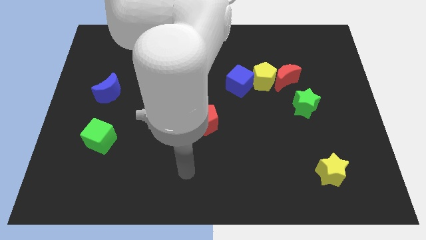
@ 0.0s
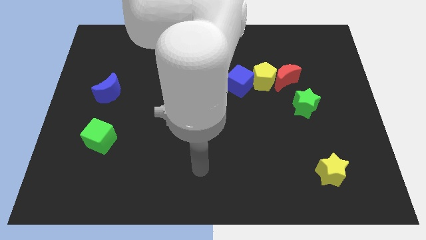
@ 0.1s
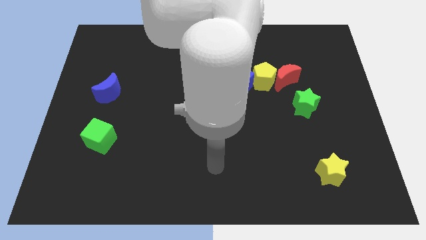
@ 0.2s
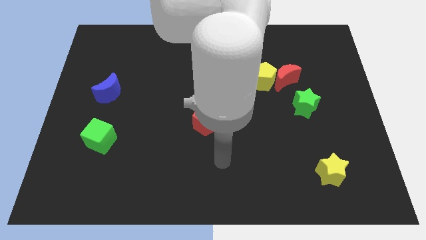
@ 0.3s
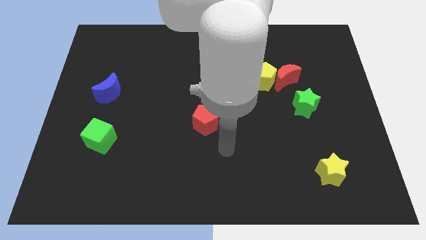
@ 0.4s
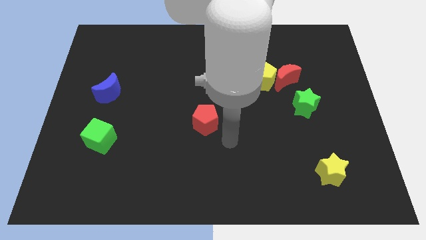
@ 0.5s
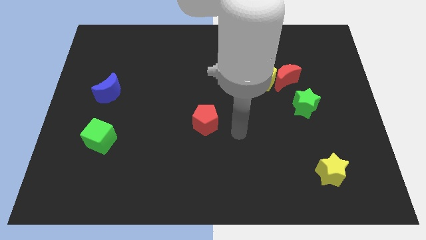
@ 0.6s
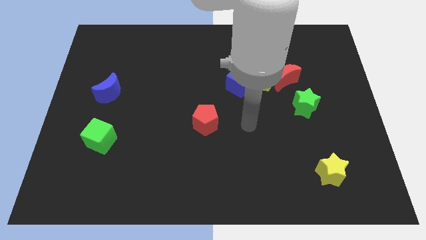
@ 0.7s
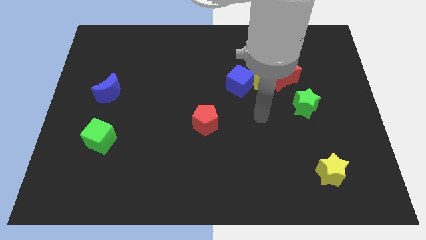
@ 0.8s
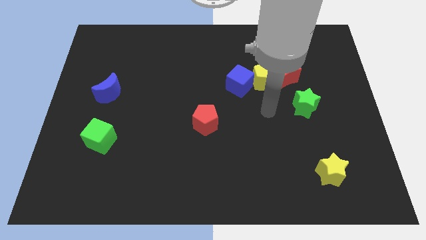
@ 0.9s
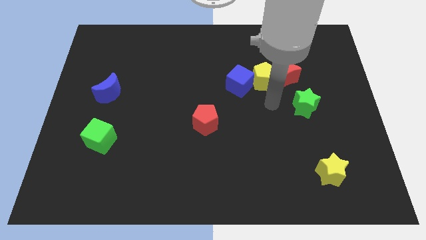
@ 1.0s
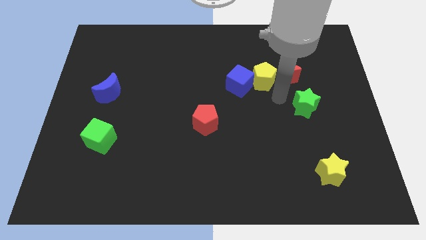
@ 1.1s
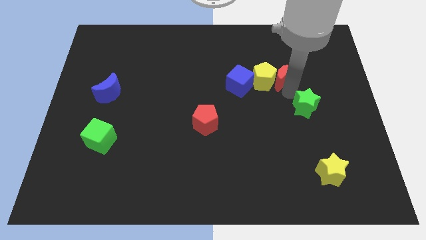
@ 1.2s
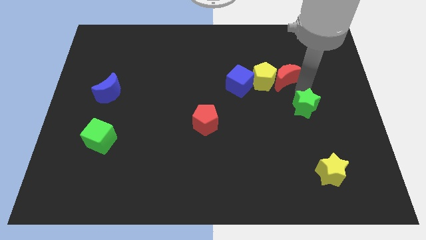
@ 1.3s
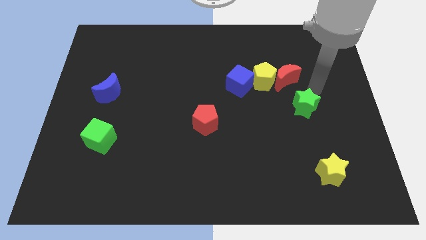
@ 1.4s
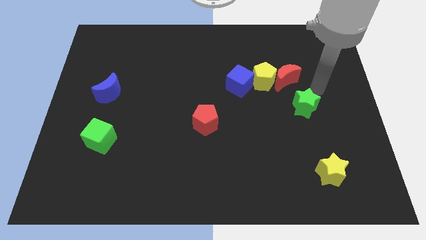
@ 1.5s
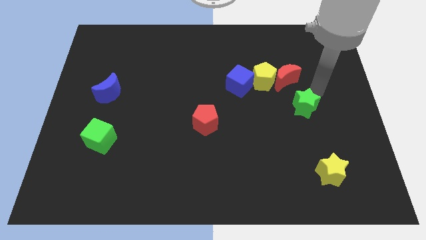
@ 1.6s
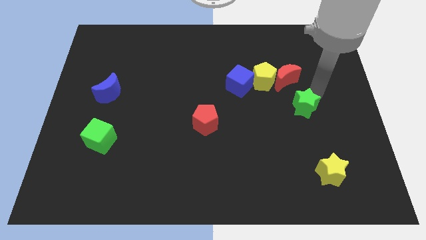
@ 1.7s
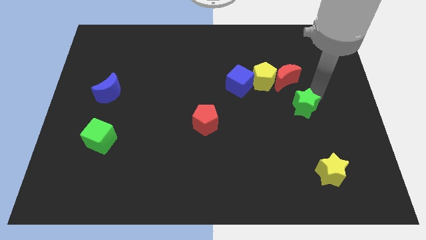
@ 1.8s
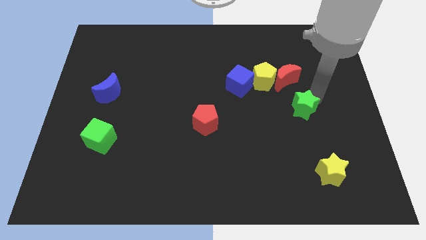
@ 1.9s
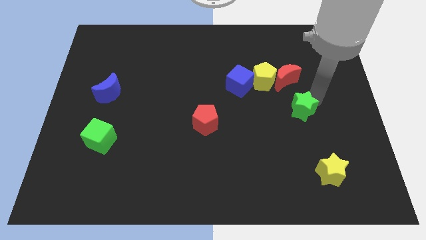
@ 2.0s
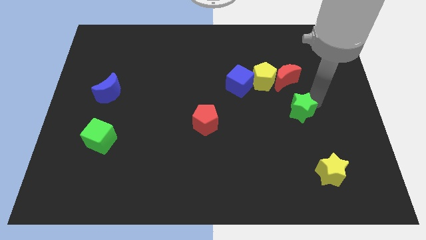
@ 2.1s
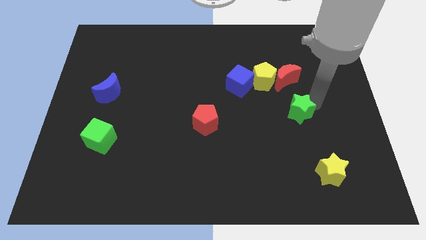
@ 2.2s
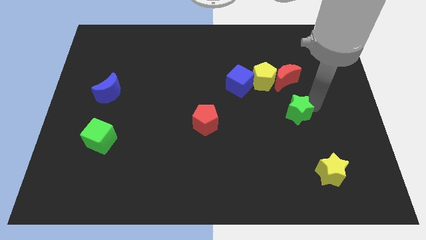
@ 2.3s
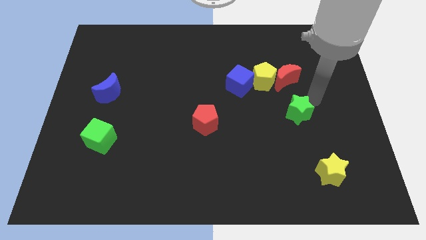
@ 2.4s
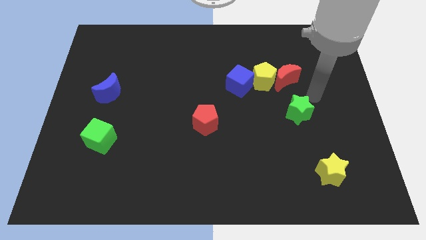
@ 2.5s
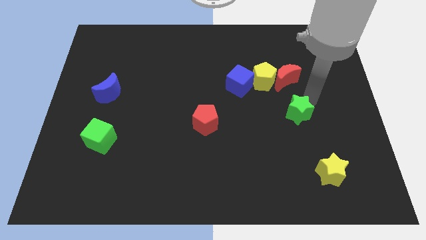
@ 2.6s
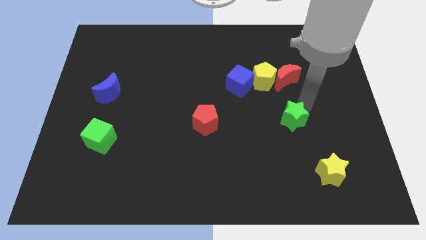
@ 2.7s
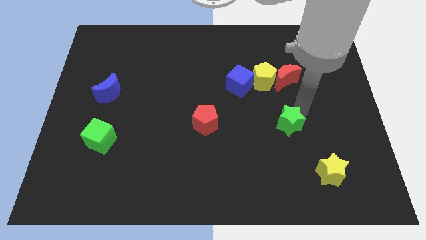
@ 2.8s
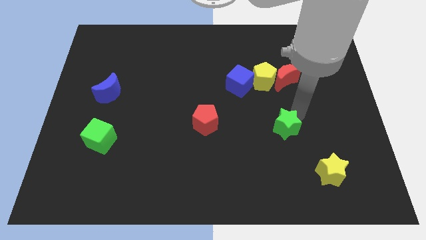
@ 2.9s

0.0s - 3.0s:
slightly slide the green star down and then left

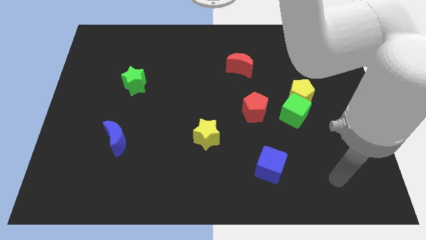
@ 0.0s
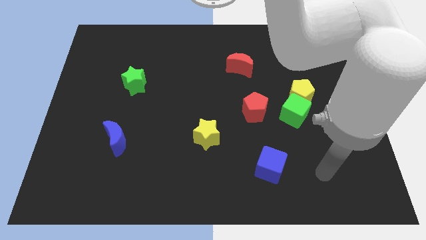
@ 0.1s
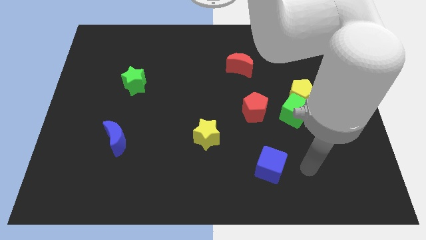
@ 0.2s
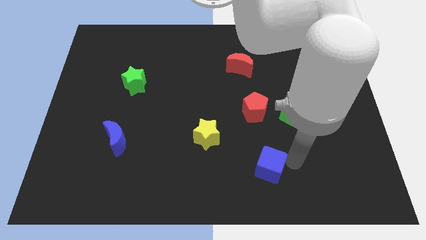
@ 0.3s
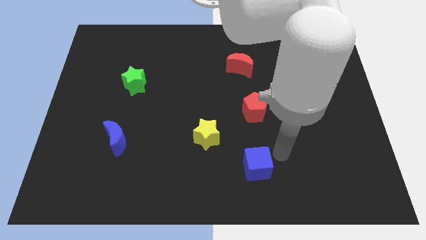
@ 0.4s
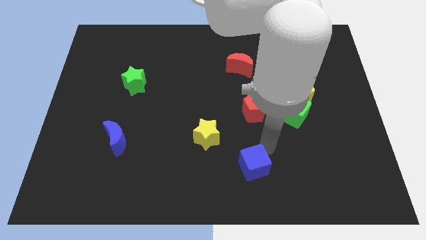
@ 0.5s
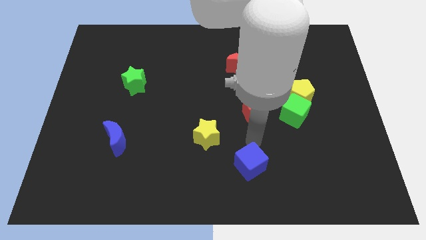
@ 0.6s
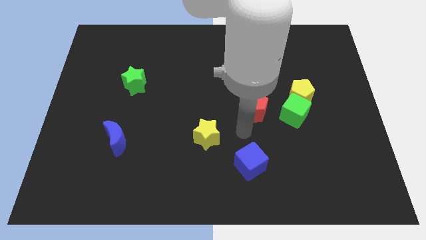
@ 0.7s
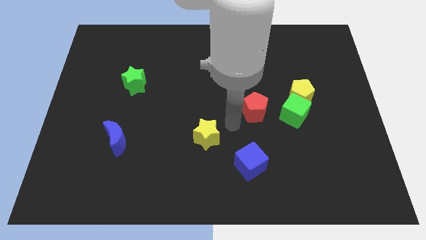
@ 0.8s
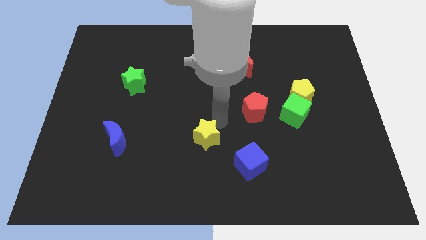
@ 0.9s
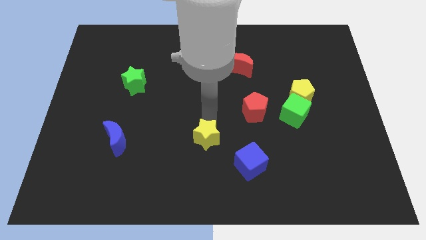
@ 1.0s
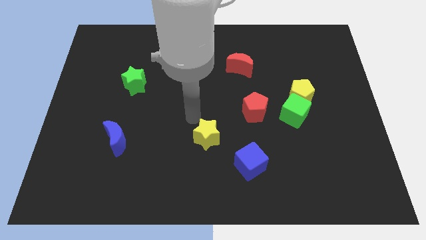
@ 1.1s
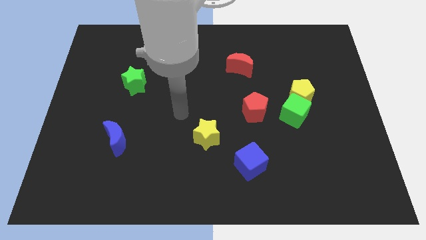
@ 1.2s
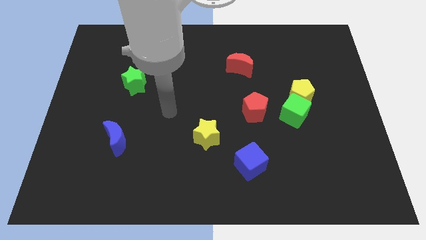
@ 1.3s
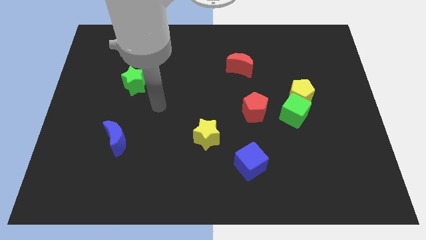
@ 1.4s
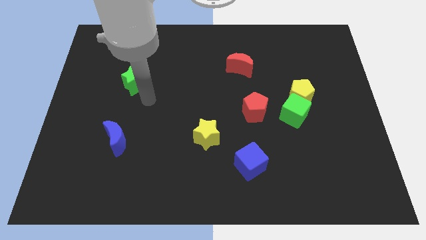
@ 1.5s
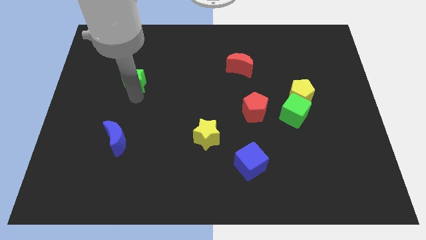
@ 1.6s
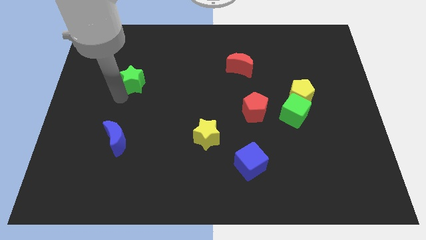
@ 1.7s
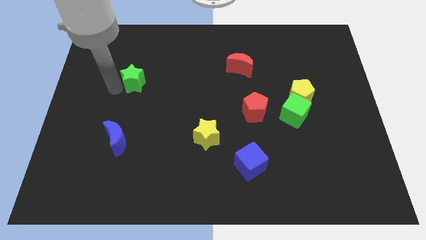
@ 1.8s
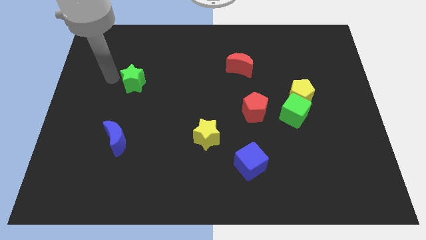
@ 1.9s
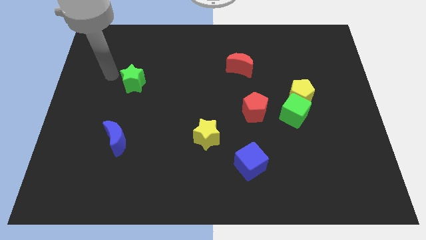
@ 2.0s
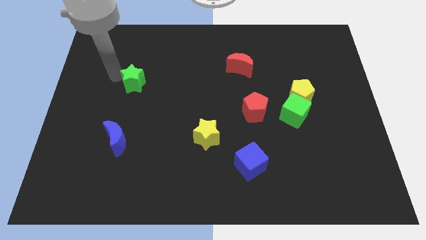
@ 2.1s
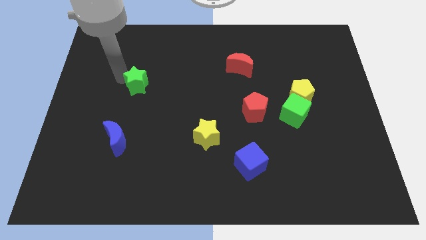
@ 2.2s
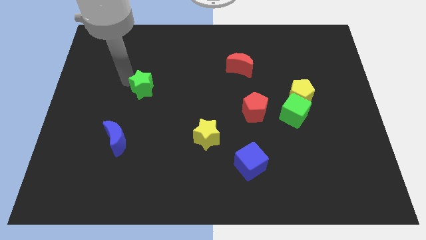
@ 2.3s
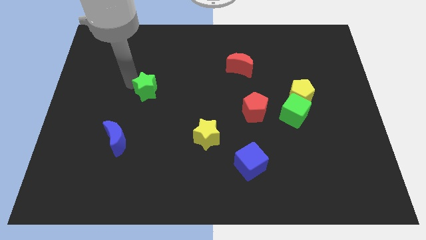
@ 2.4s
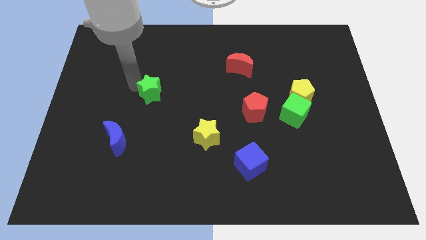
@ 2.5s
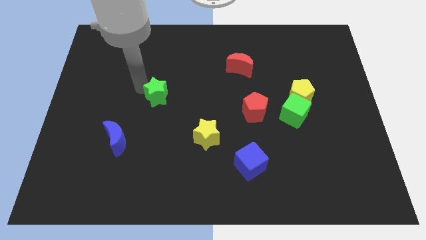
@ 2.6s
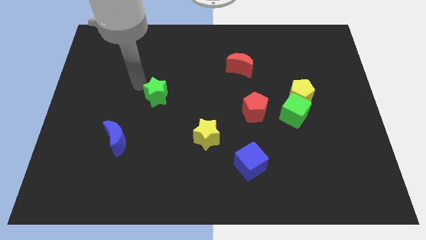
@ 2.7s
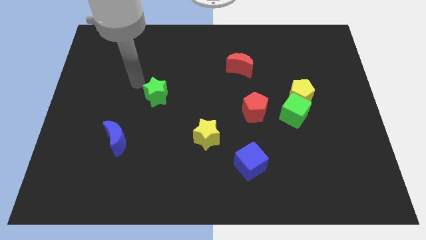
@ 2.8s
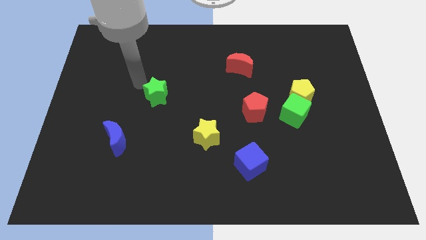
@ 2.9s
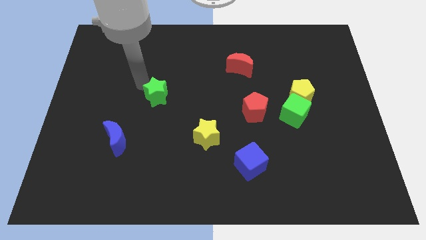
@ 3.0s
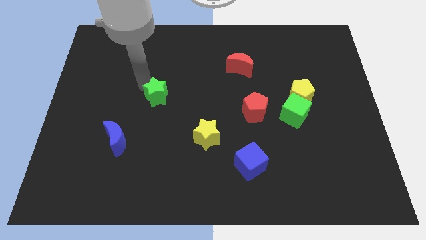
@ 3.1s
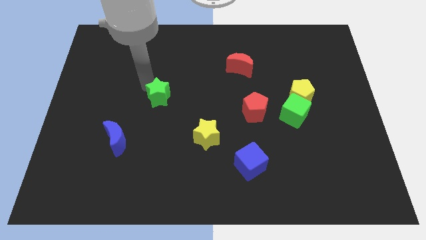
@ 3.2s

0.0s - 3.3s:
push the green star down and then right a little bit

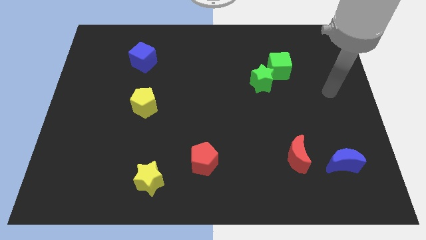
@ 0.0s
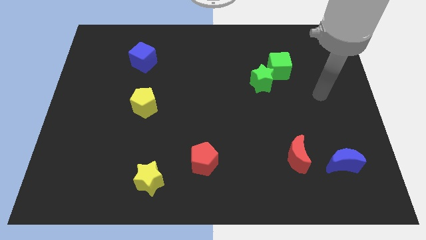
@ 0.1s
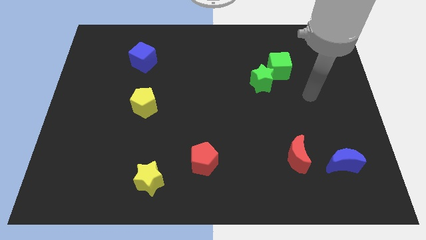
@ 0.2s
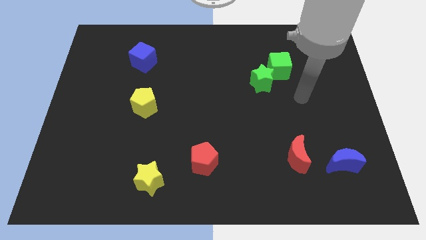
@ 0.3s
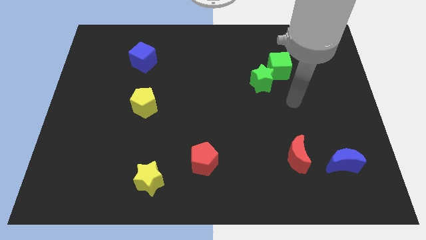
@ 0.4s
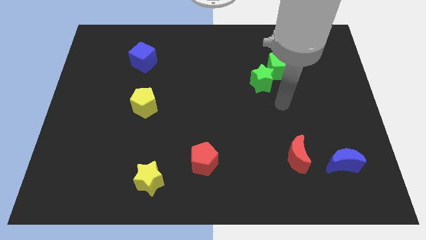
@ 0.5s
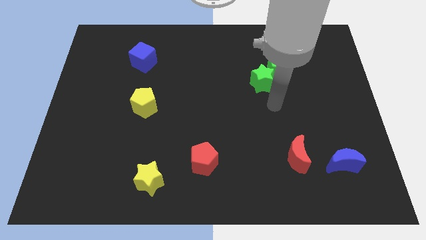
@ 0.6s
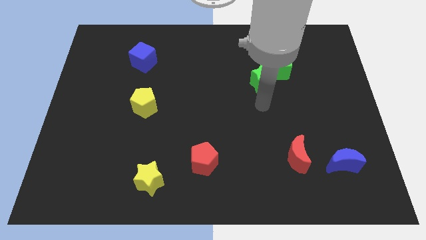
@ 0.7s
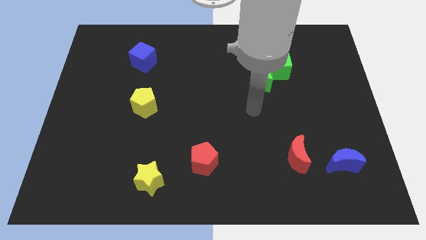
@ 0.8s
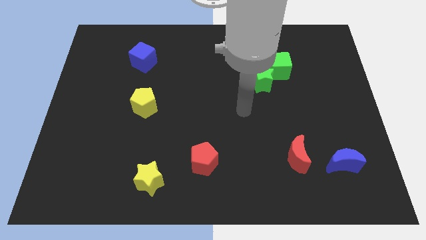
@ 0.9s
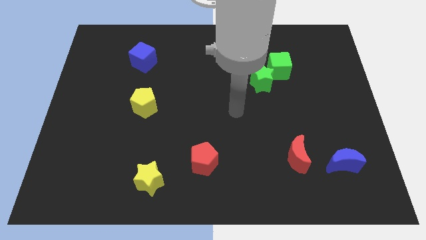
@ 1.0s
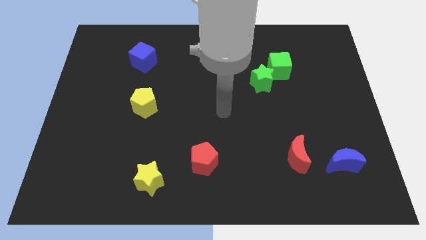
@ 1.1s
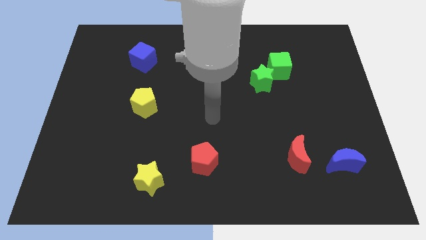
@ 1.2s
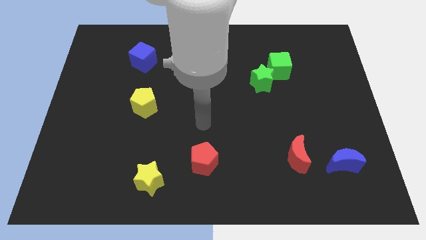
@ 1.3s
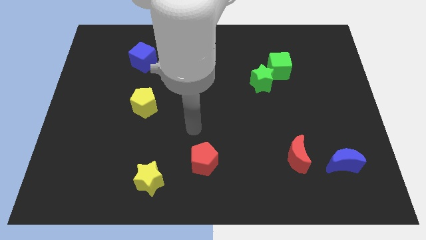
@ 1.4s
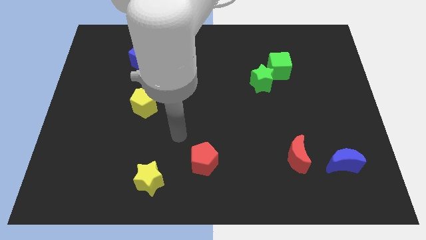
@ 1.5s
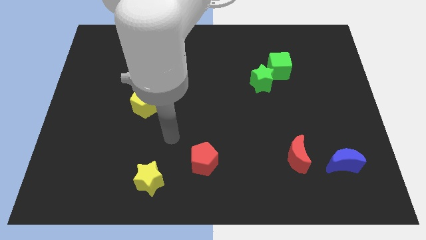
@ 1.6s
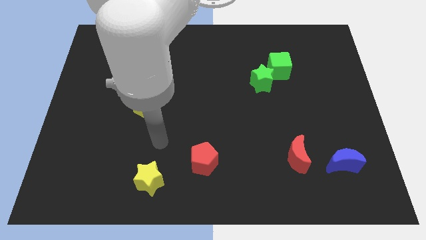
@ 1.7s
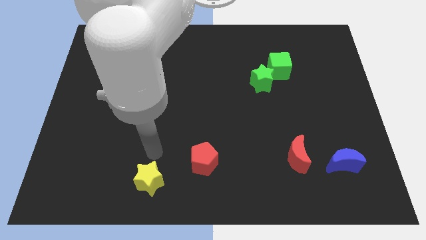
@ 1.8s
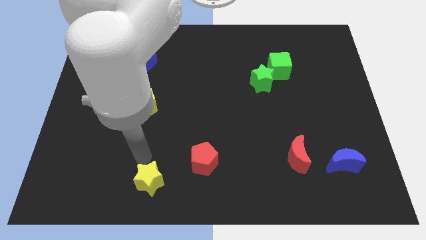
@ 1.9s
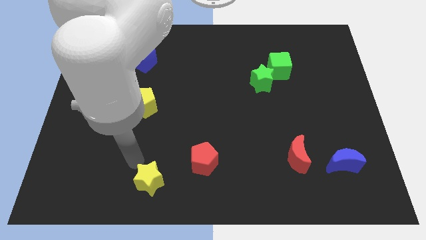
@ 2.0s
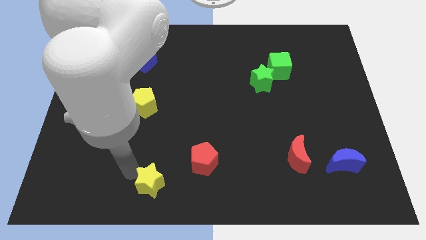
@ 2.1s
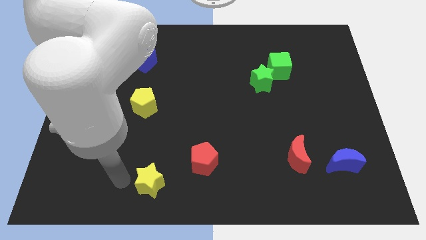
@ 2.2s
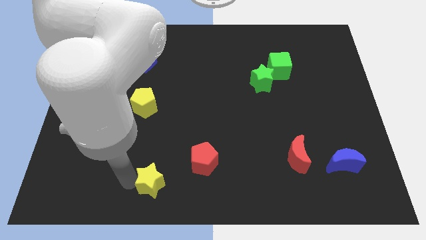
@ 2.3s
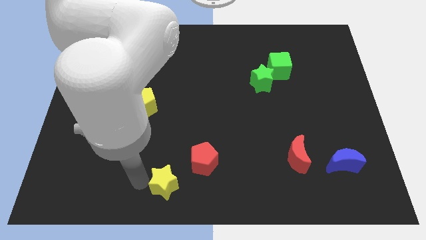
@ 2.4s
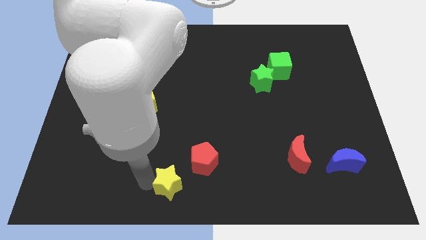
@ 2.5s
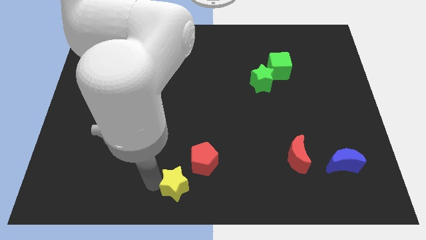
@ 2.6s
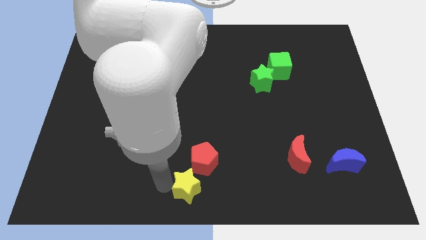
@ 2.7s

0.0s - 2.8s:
push the yellow star right a little bit
